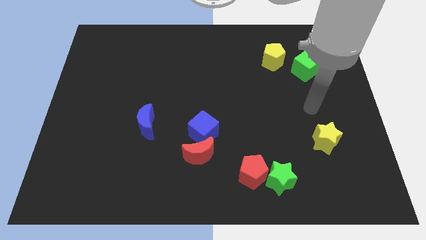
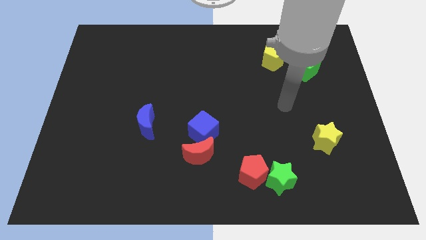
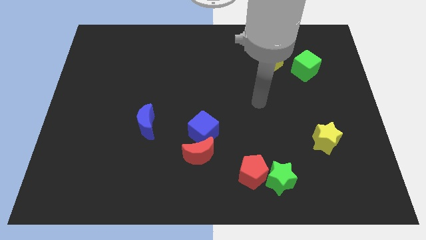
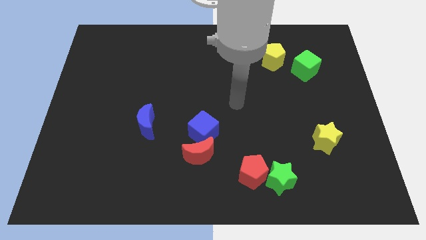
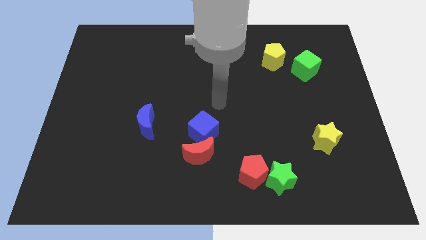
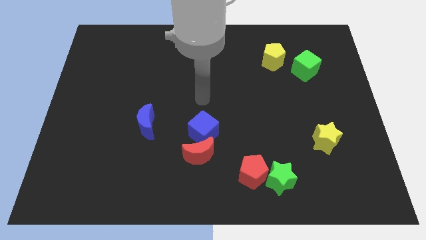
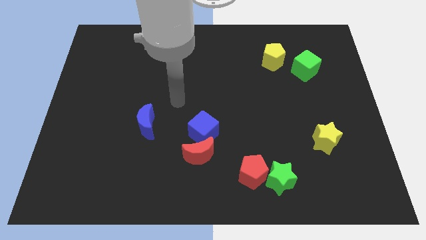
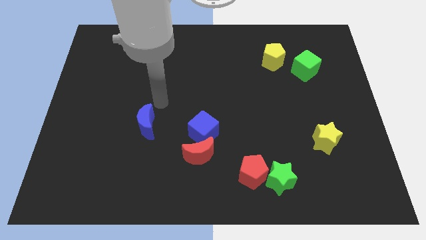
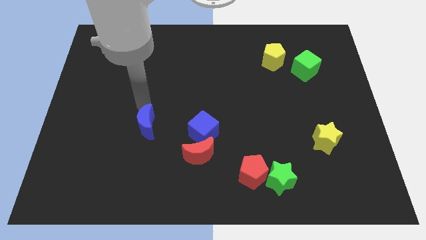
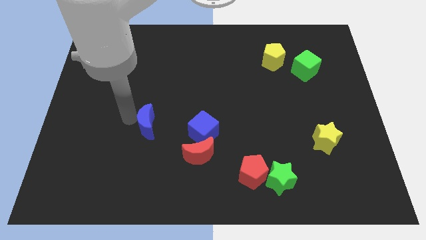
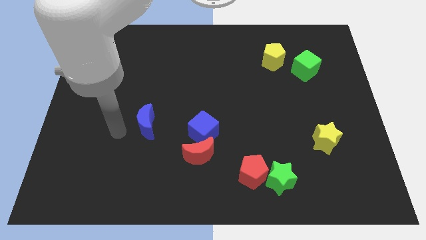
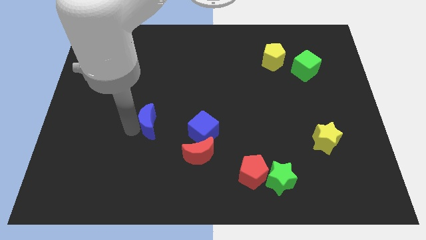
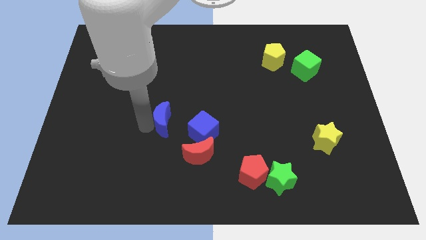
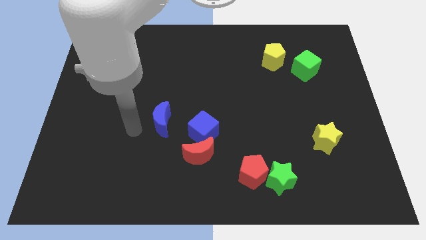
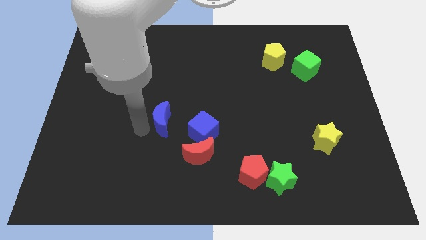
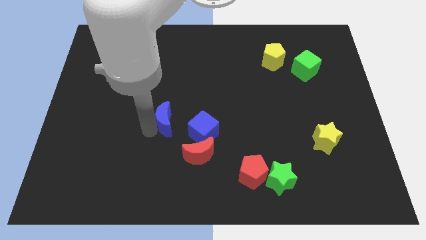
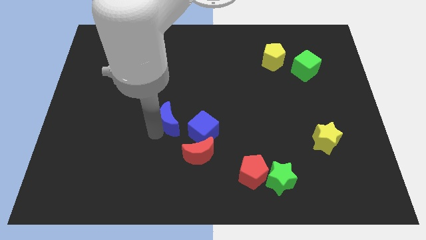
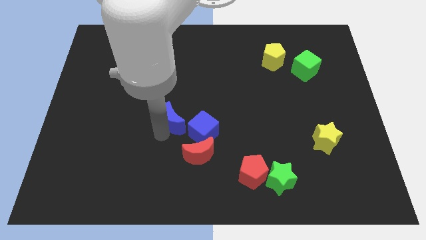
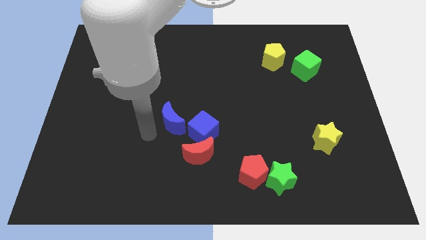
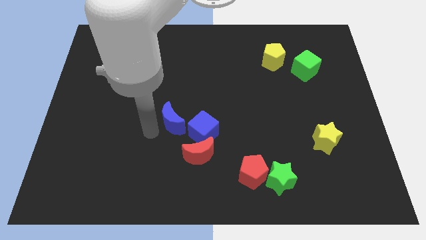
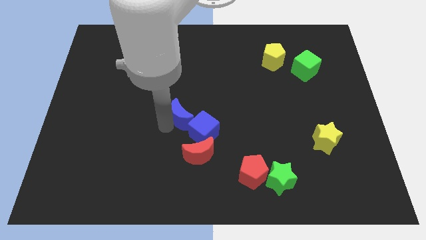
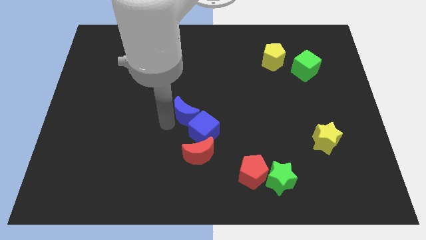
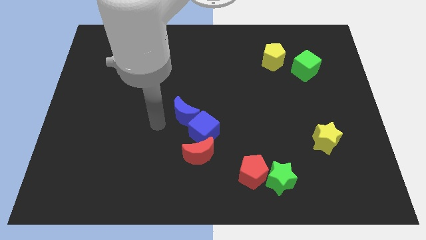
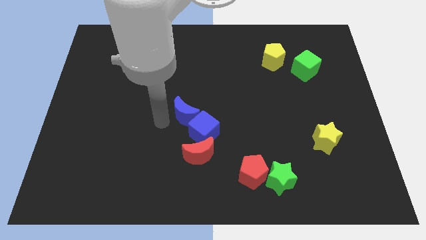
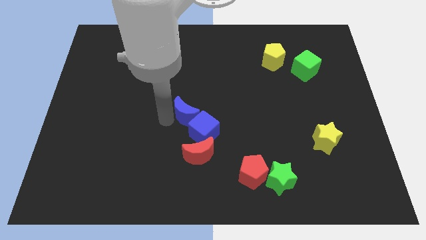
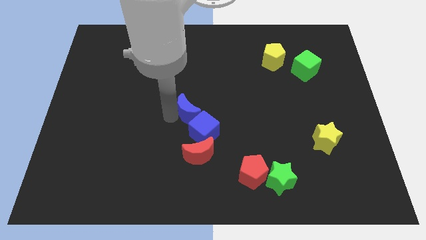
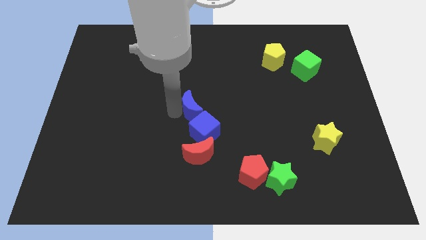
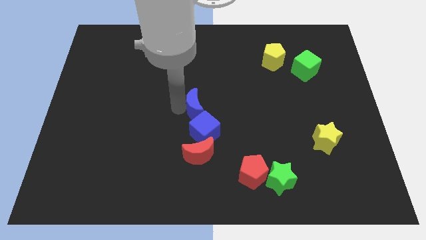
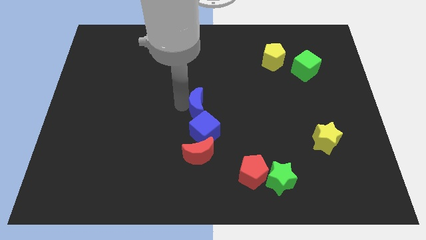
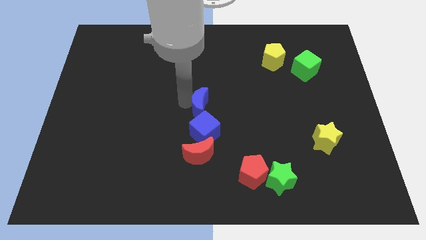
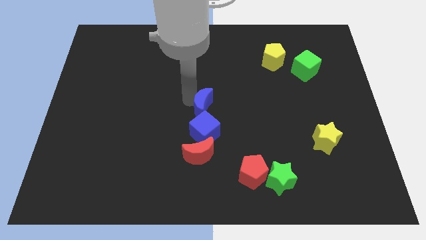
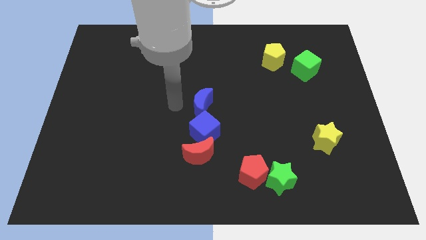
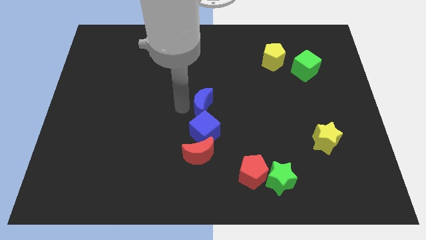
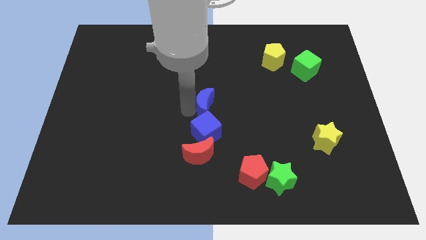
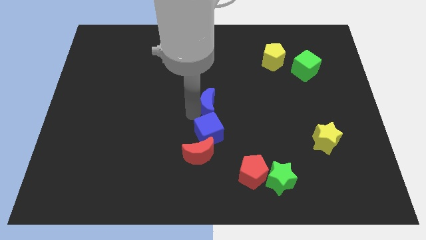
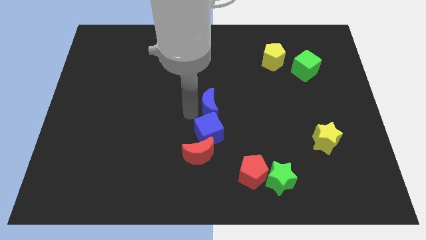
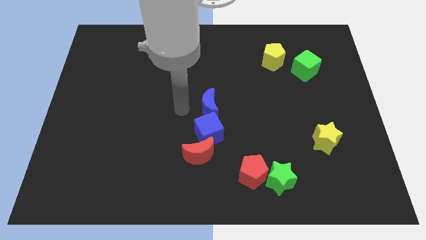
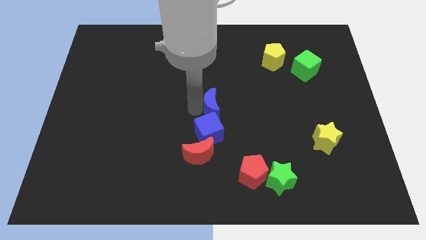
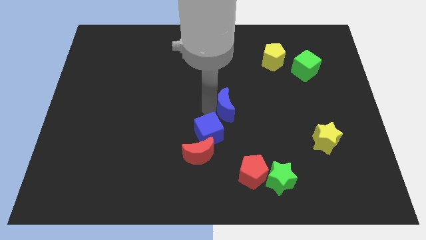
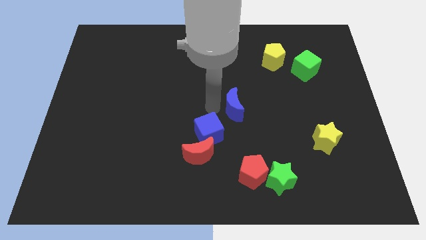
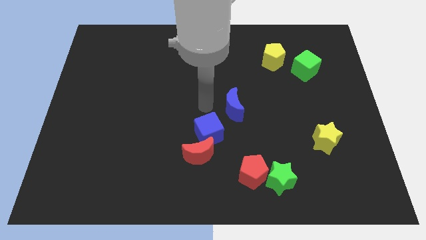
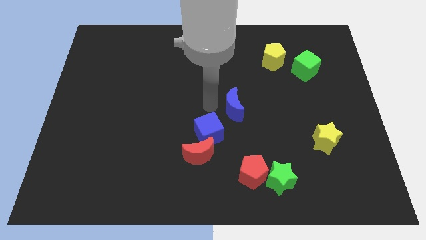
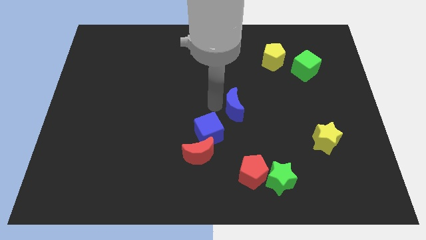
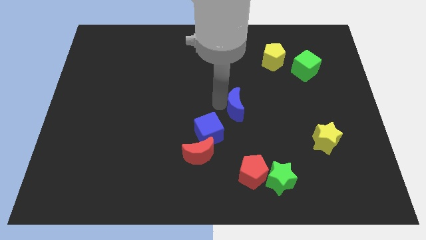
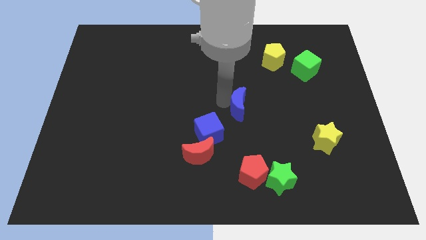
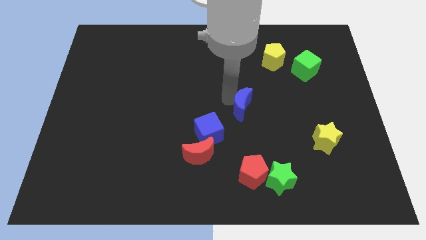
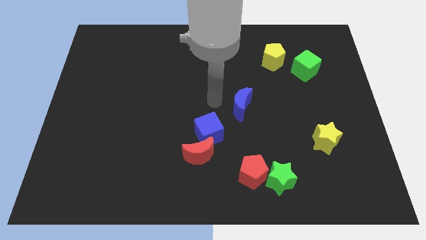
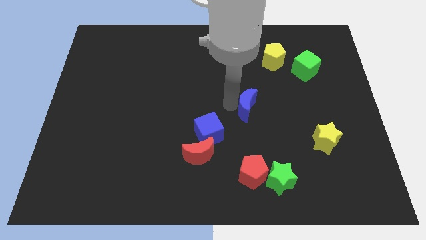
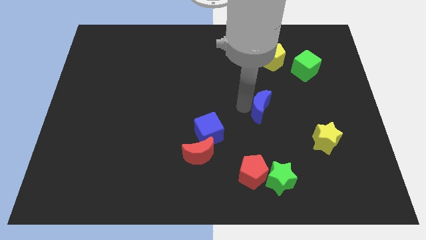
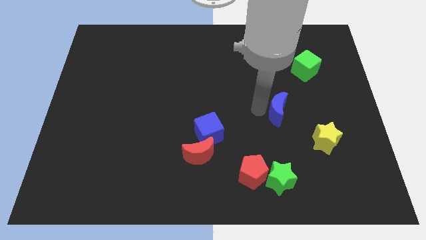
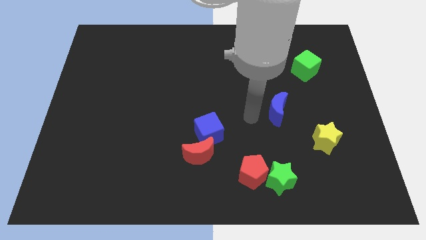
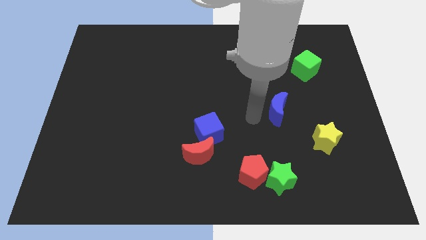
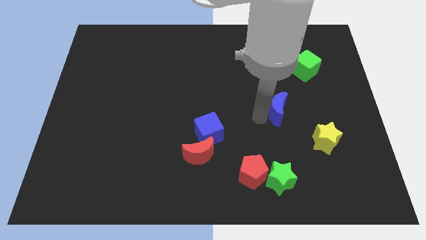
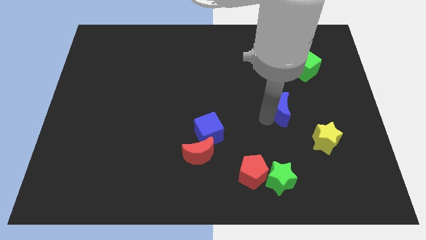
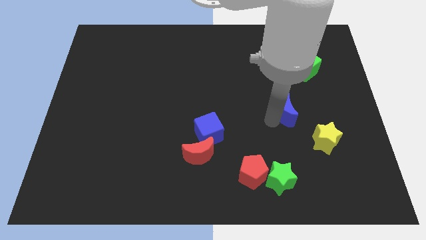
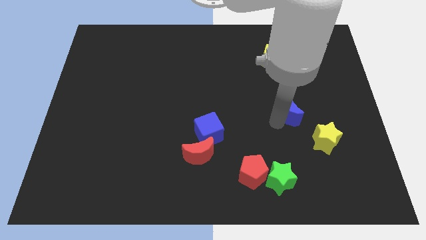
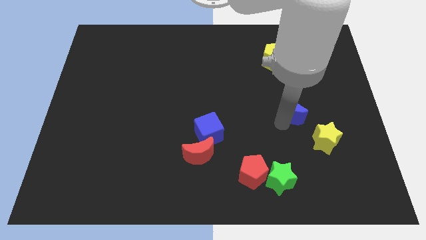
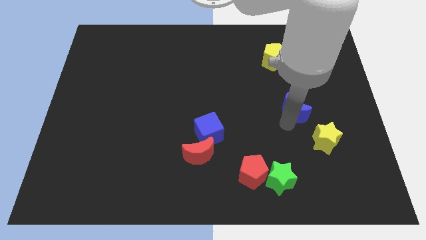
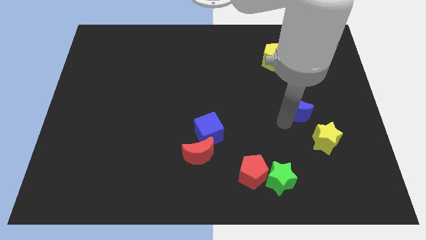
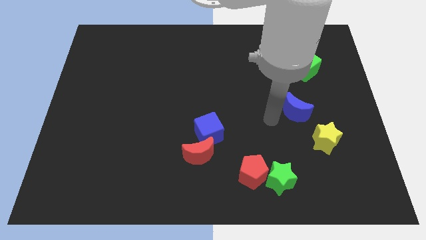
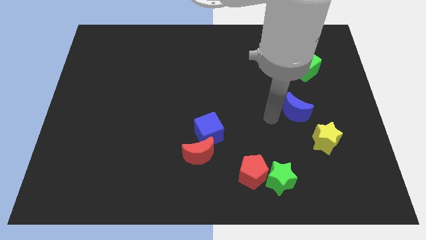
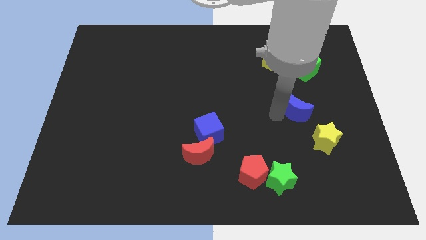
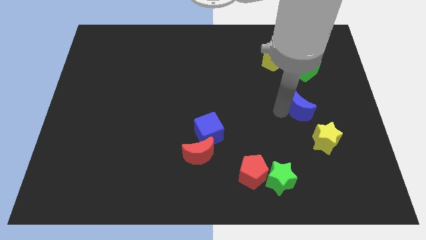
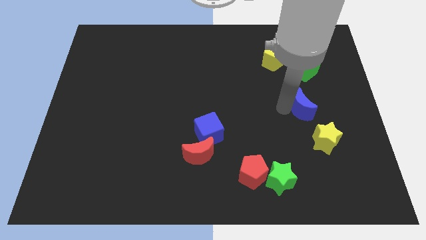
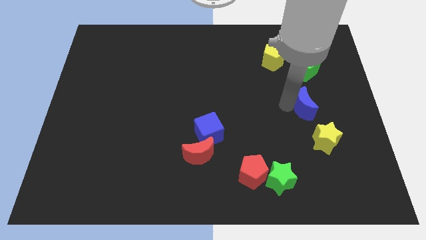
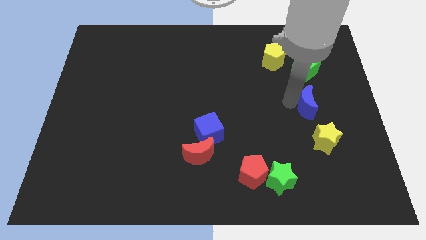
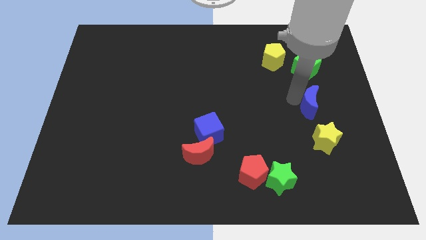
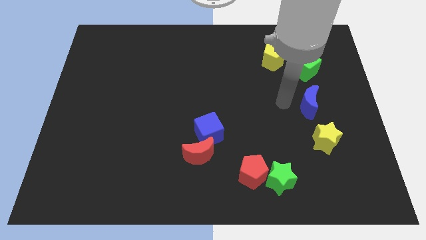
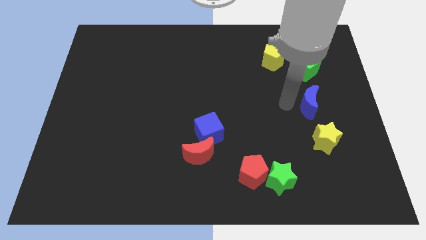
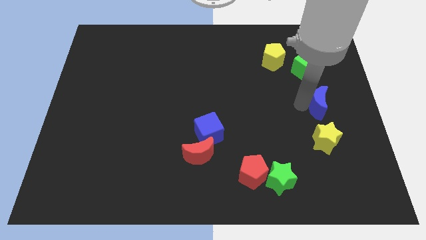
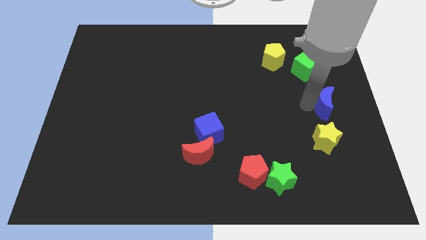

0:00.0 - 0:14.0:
put the blue moon to the center right
